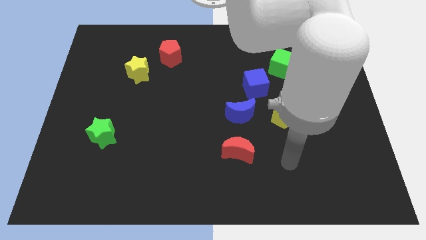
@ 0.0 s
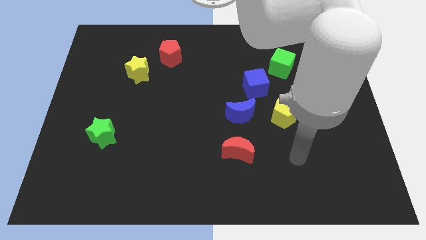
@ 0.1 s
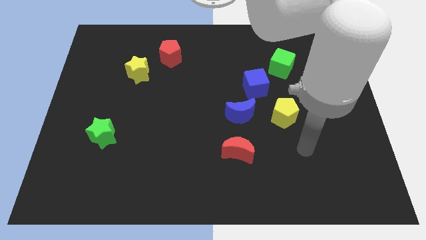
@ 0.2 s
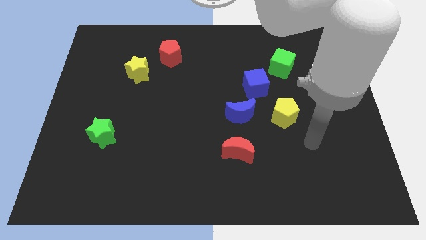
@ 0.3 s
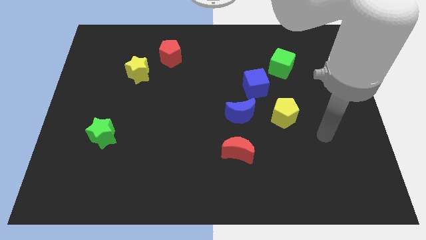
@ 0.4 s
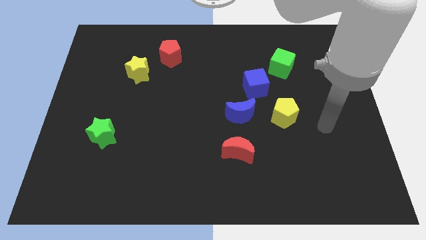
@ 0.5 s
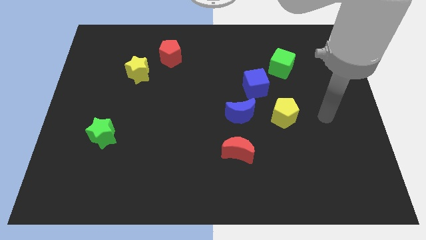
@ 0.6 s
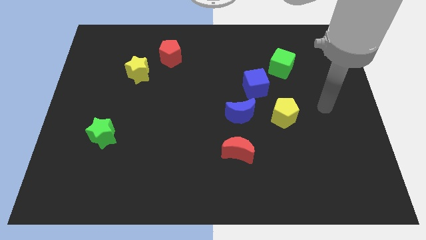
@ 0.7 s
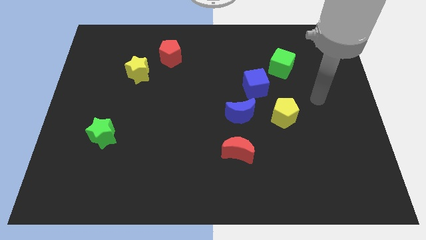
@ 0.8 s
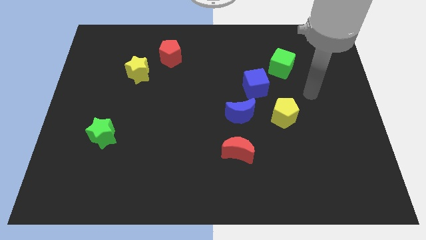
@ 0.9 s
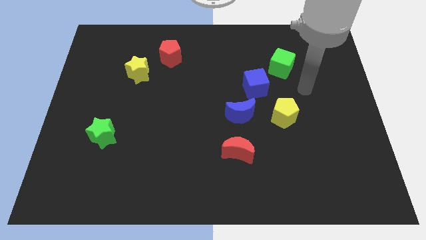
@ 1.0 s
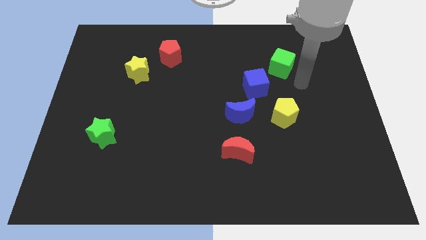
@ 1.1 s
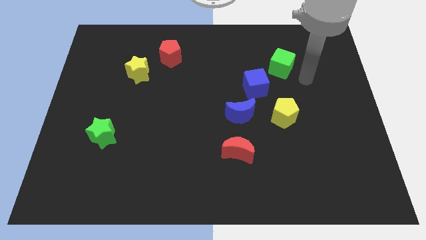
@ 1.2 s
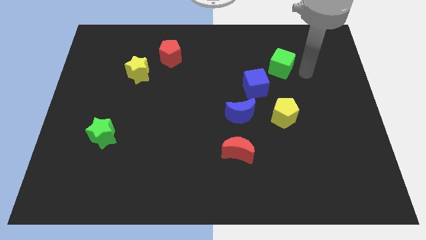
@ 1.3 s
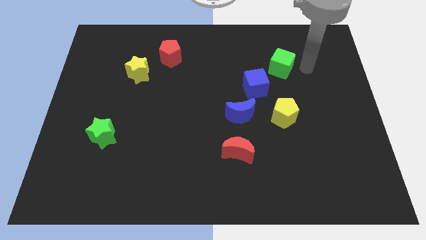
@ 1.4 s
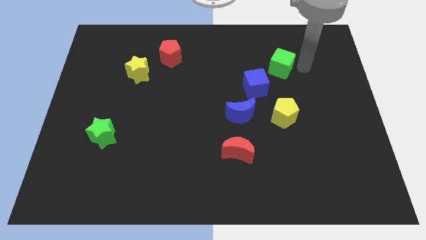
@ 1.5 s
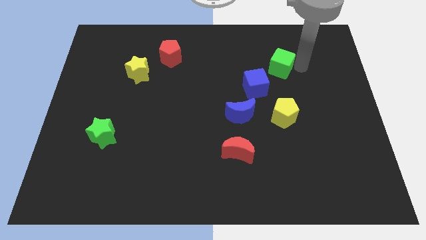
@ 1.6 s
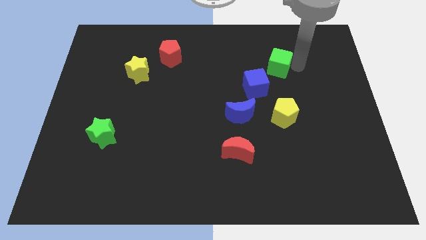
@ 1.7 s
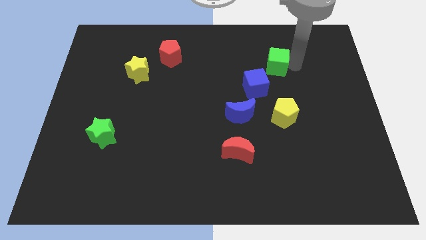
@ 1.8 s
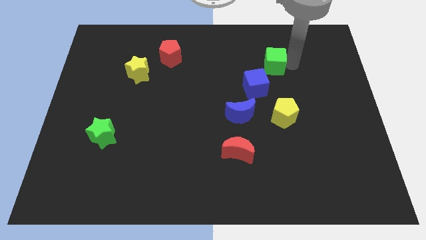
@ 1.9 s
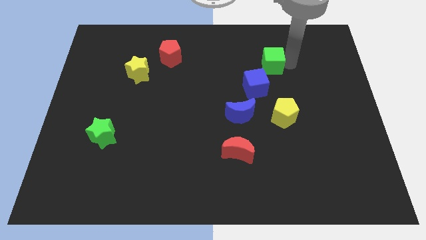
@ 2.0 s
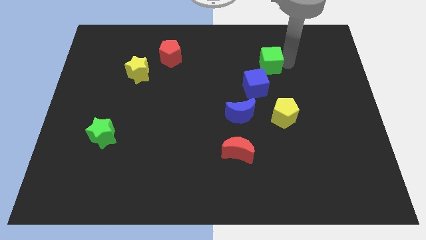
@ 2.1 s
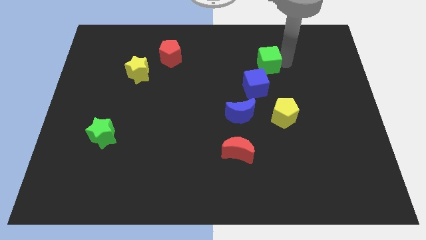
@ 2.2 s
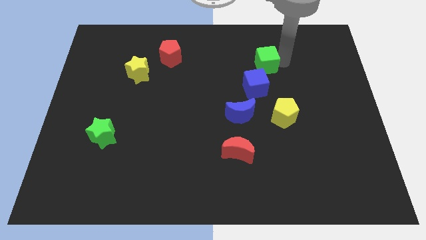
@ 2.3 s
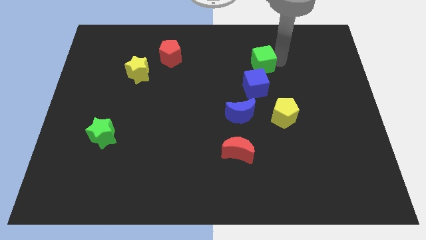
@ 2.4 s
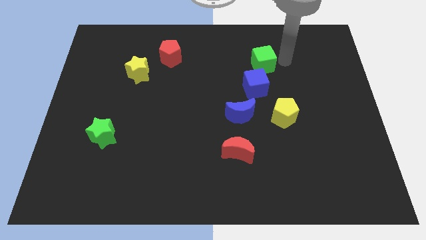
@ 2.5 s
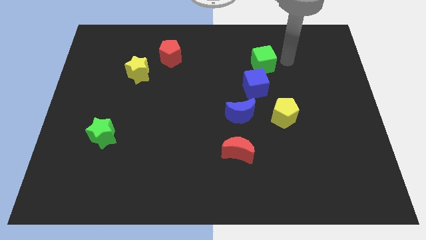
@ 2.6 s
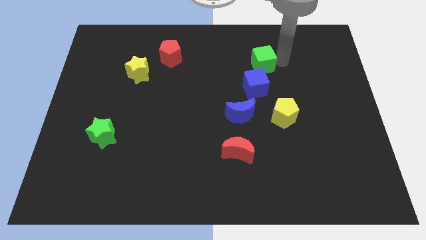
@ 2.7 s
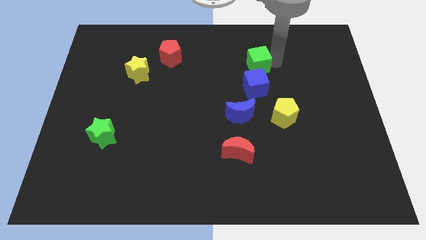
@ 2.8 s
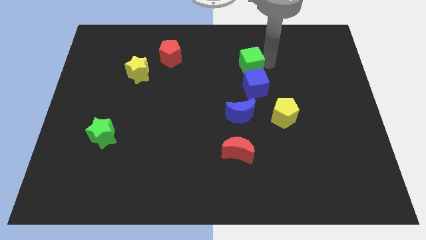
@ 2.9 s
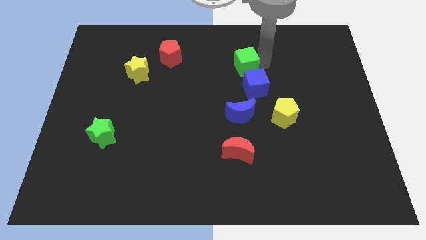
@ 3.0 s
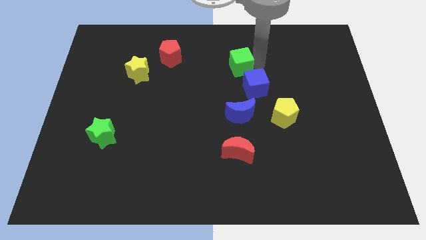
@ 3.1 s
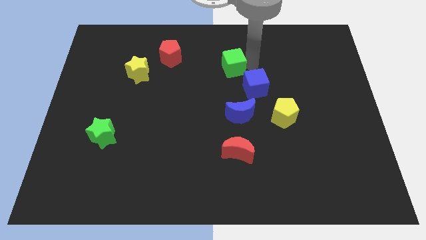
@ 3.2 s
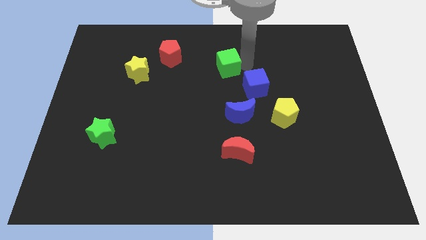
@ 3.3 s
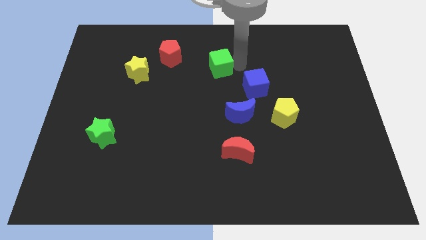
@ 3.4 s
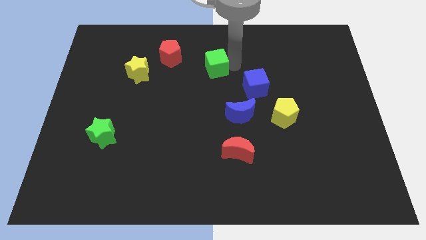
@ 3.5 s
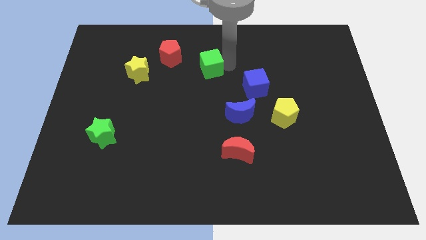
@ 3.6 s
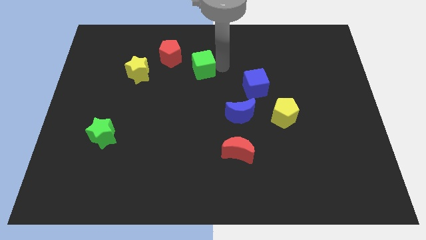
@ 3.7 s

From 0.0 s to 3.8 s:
push the green cube left

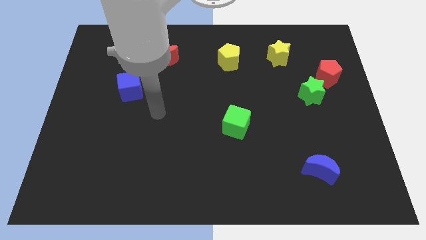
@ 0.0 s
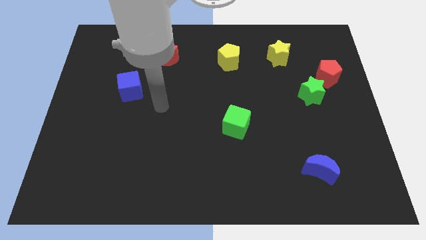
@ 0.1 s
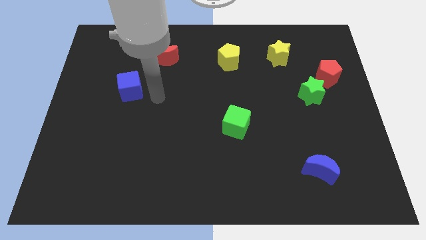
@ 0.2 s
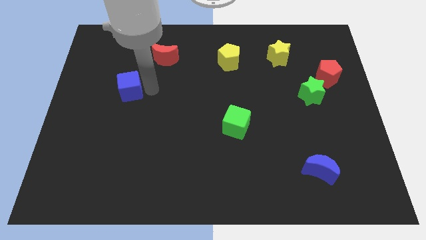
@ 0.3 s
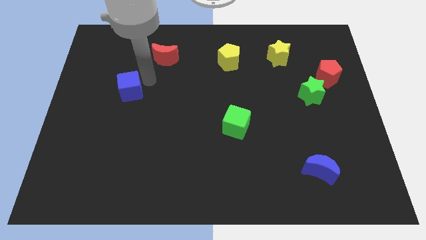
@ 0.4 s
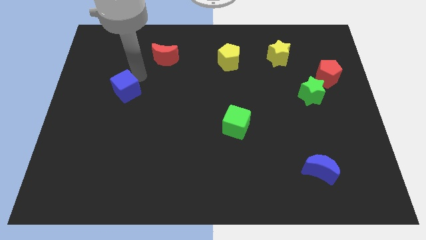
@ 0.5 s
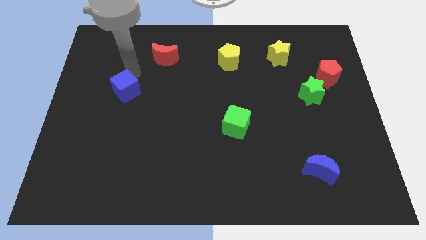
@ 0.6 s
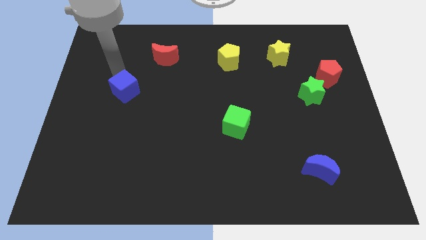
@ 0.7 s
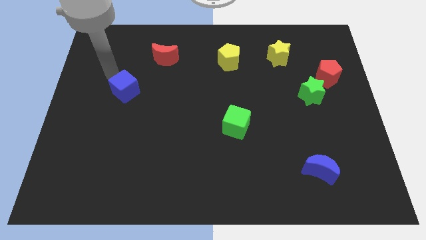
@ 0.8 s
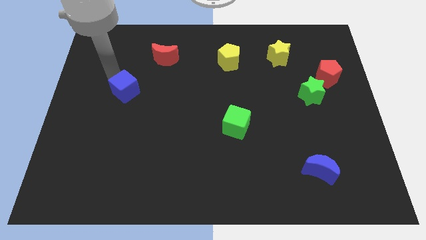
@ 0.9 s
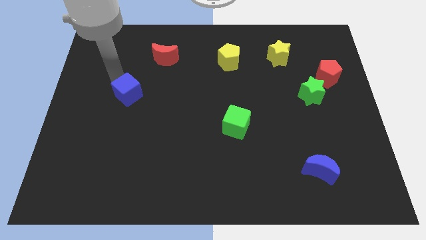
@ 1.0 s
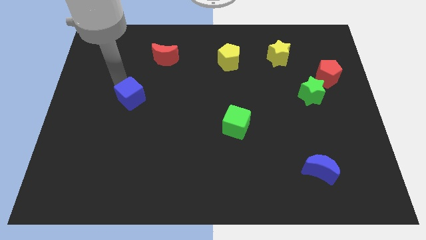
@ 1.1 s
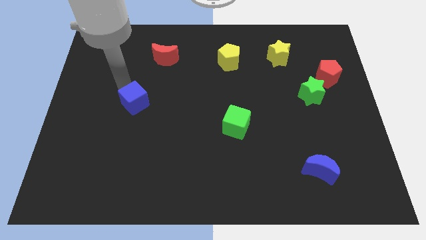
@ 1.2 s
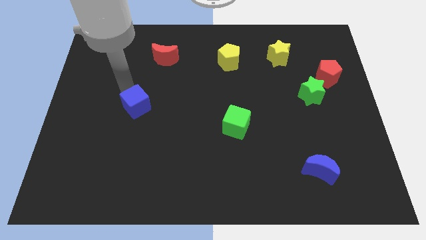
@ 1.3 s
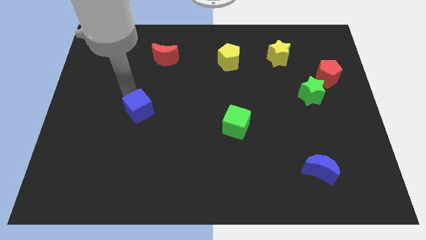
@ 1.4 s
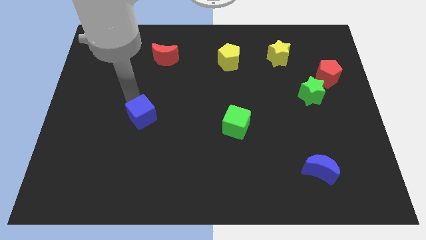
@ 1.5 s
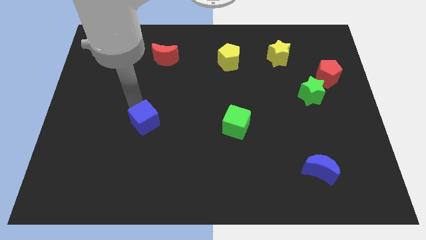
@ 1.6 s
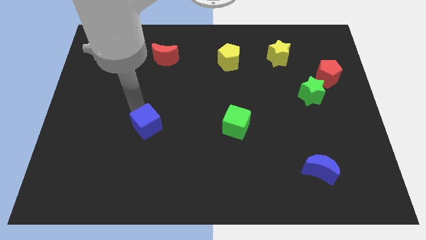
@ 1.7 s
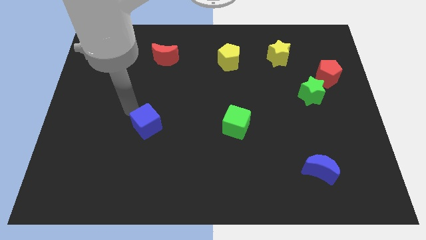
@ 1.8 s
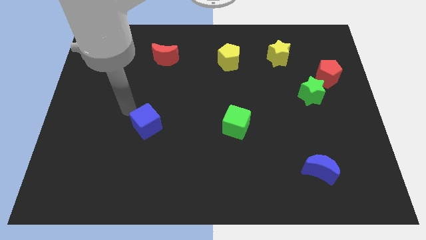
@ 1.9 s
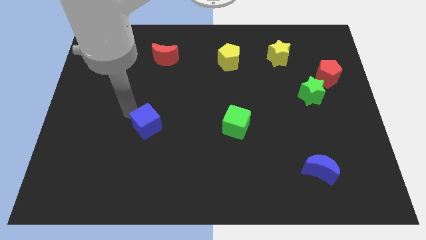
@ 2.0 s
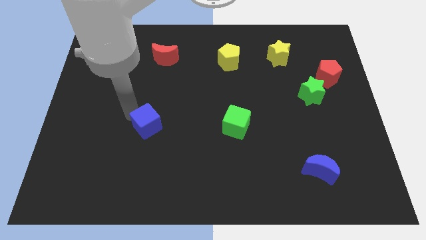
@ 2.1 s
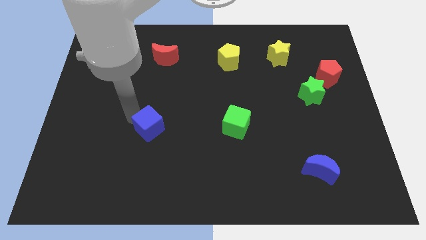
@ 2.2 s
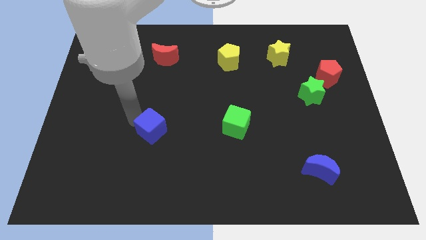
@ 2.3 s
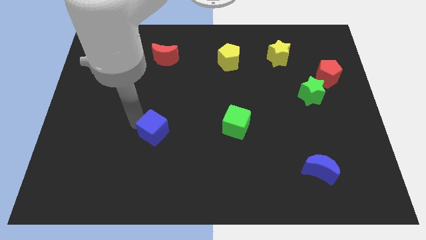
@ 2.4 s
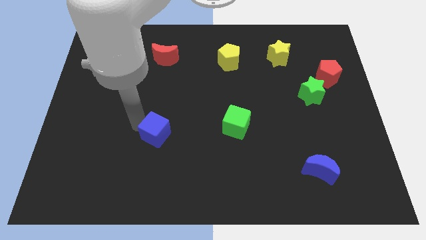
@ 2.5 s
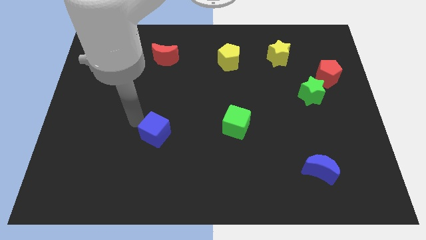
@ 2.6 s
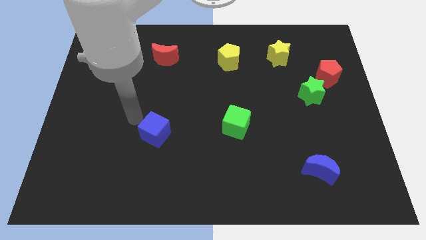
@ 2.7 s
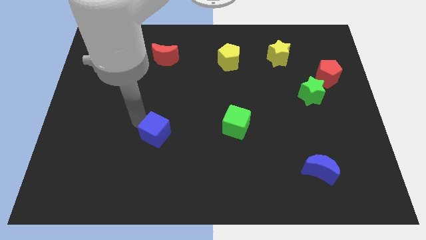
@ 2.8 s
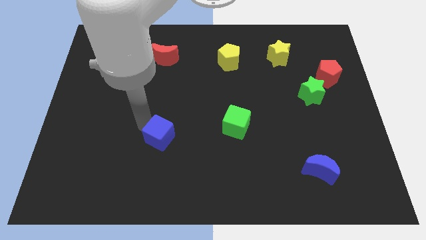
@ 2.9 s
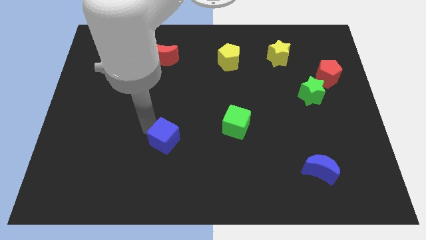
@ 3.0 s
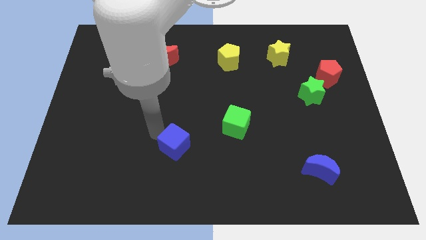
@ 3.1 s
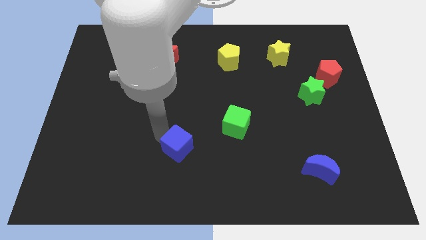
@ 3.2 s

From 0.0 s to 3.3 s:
push the blue cube down and right

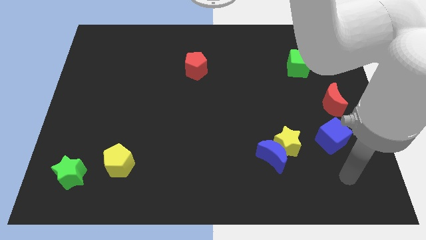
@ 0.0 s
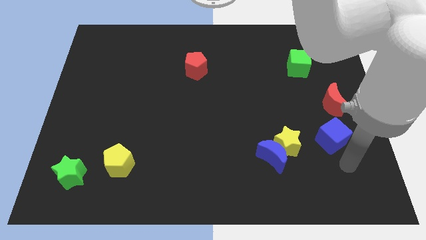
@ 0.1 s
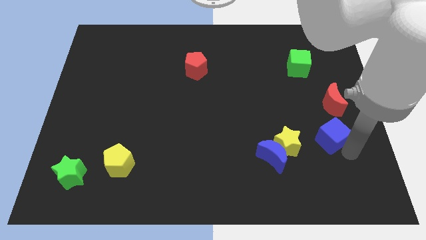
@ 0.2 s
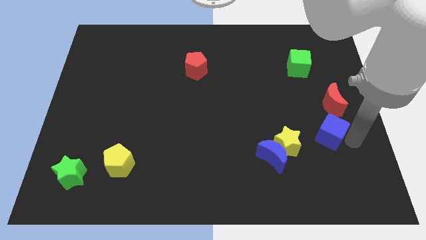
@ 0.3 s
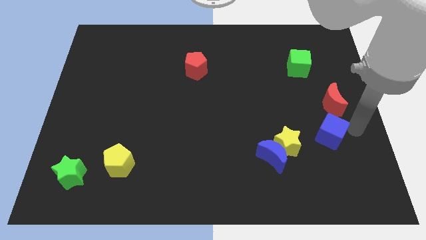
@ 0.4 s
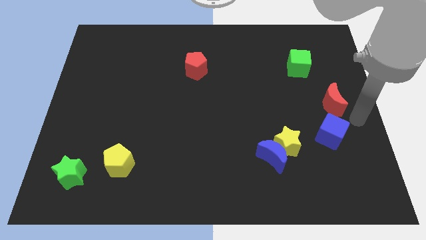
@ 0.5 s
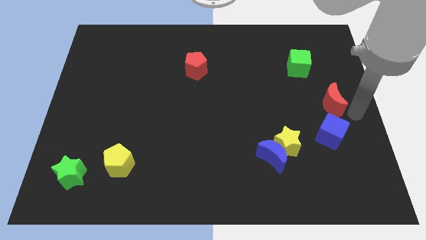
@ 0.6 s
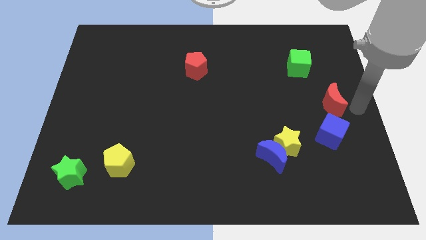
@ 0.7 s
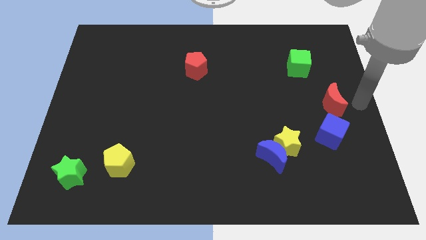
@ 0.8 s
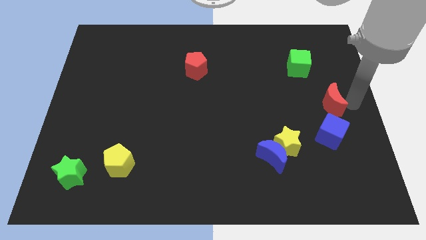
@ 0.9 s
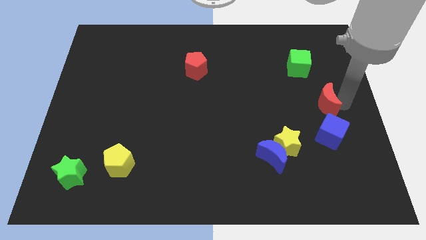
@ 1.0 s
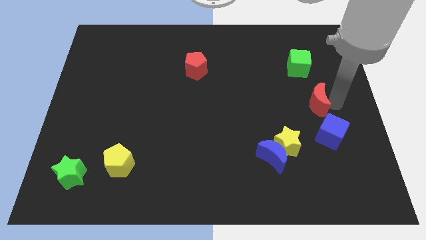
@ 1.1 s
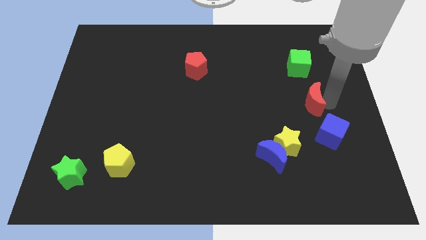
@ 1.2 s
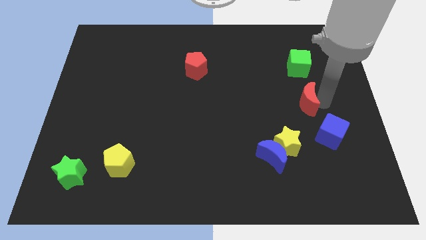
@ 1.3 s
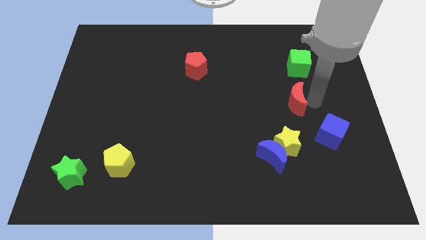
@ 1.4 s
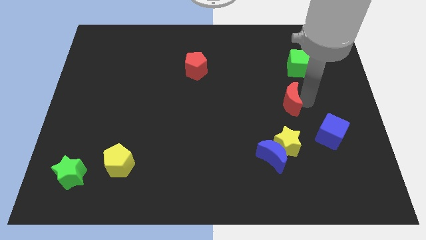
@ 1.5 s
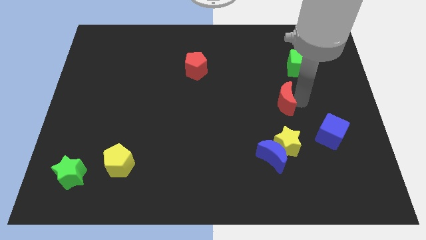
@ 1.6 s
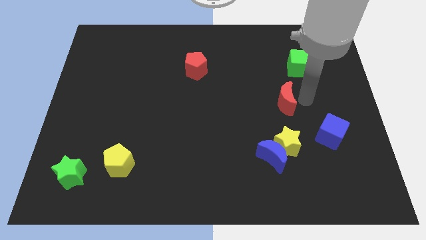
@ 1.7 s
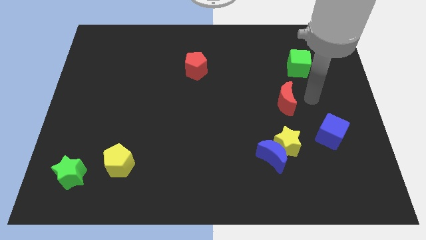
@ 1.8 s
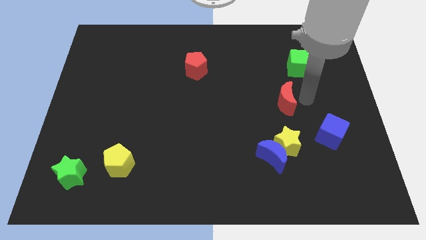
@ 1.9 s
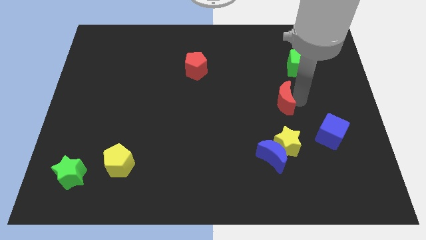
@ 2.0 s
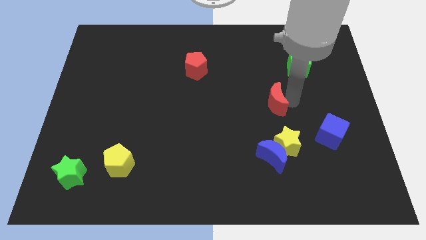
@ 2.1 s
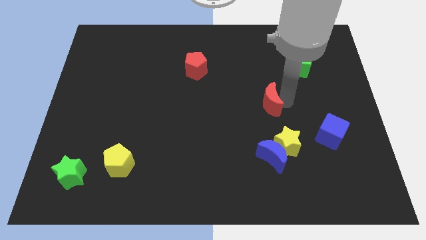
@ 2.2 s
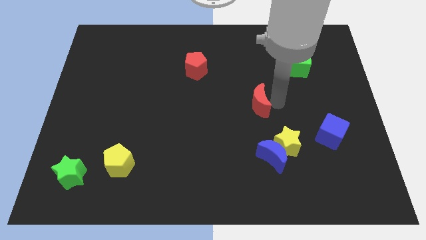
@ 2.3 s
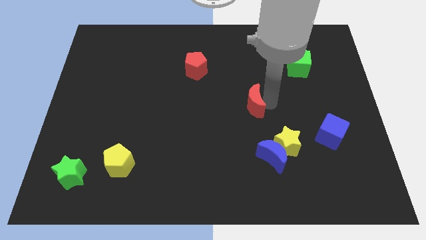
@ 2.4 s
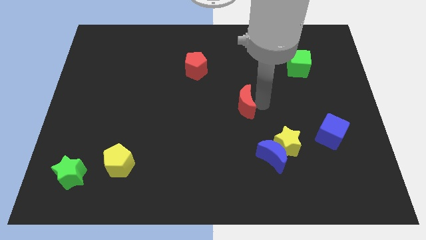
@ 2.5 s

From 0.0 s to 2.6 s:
push the red moon to the left
